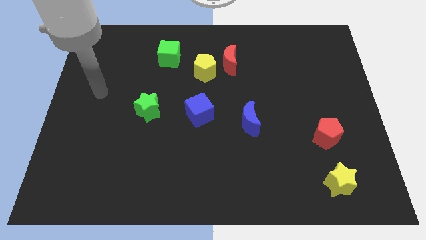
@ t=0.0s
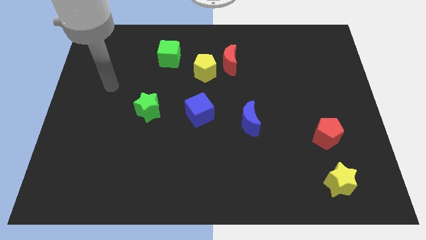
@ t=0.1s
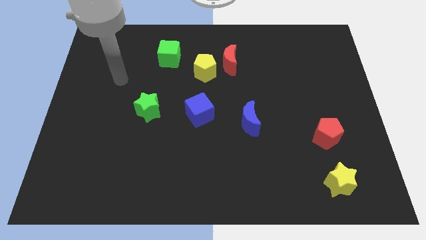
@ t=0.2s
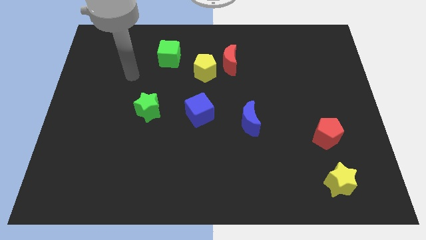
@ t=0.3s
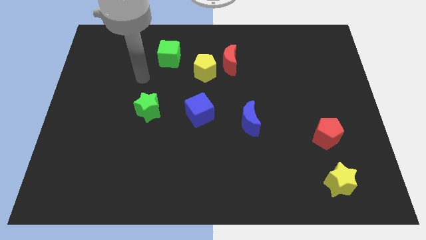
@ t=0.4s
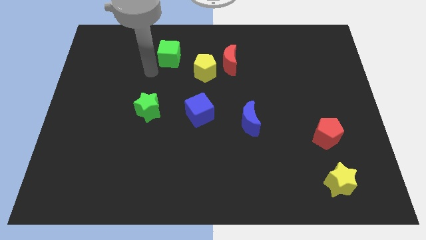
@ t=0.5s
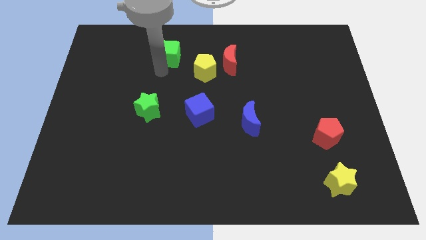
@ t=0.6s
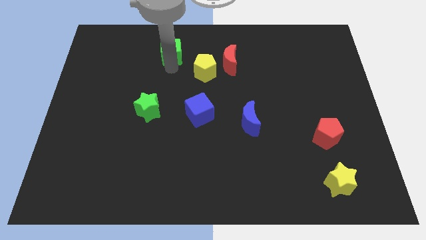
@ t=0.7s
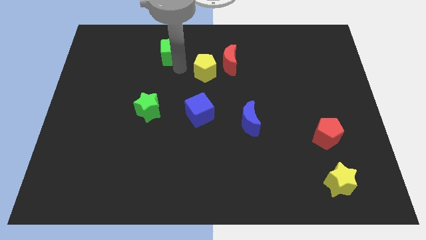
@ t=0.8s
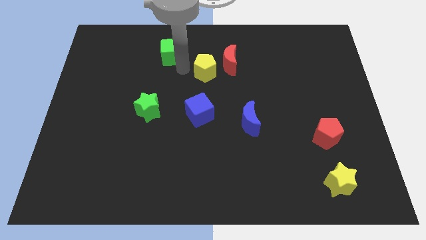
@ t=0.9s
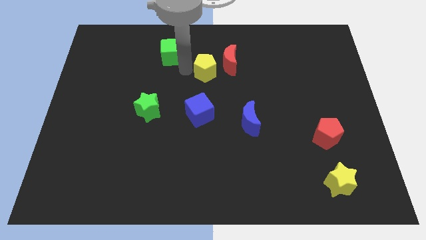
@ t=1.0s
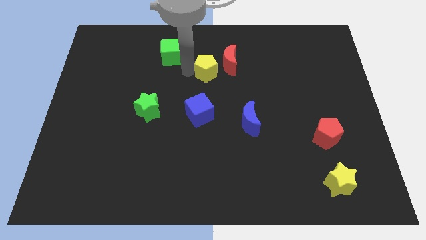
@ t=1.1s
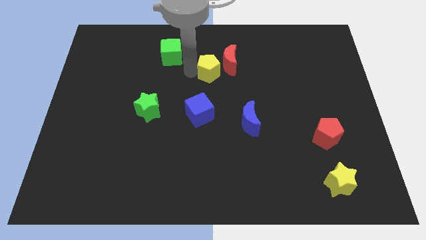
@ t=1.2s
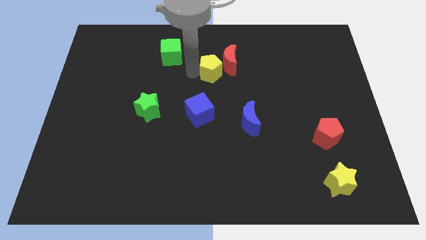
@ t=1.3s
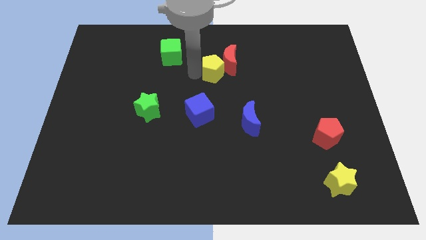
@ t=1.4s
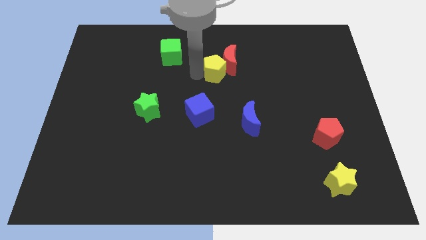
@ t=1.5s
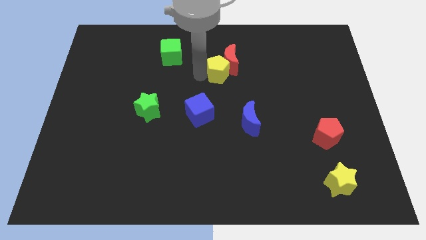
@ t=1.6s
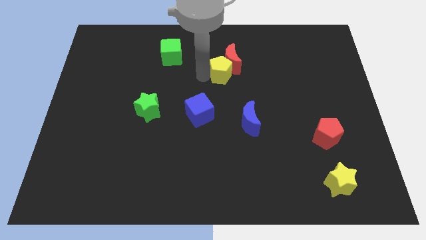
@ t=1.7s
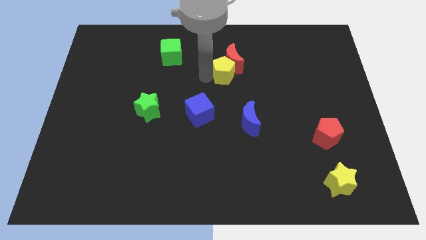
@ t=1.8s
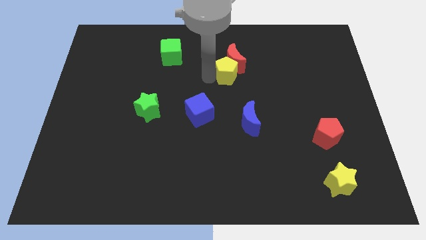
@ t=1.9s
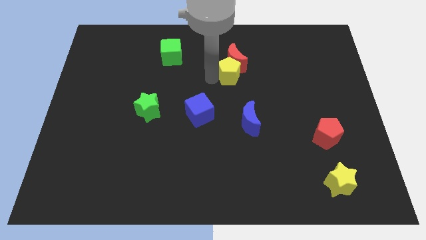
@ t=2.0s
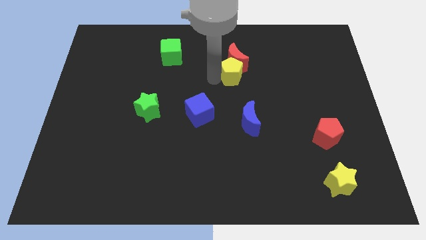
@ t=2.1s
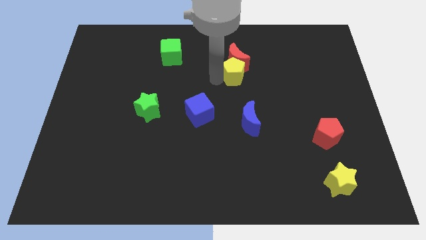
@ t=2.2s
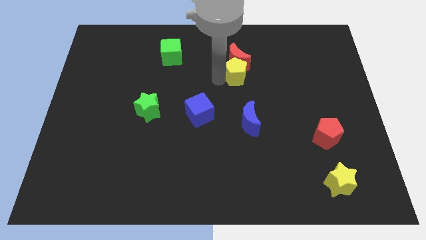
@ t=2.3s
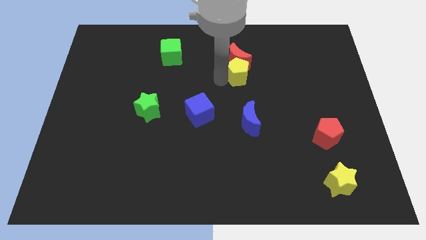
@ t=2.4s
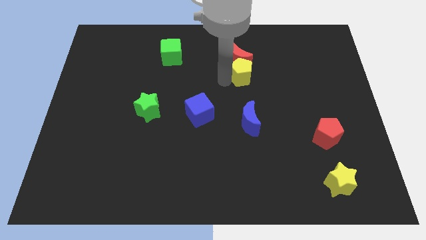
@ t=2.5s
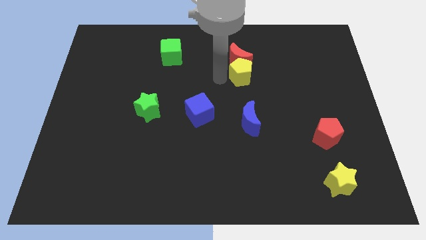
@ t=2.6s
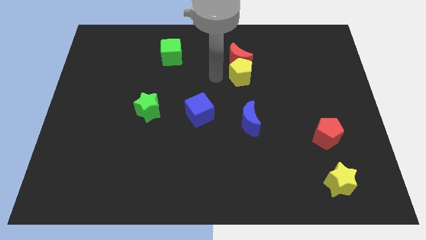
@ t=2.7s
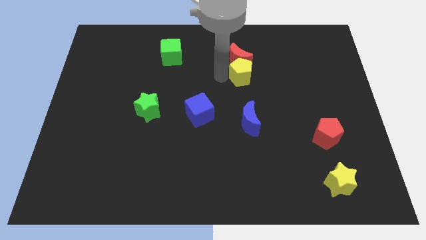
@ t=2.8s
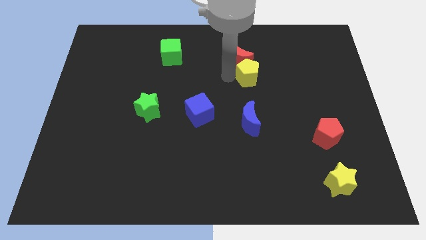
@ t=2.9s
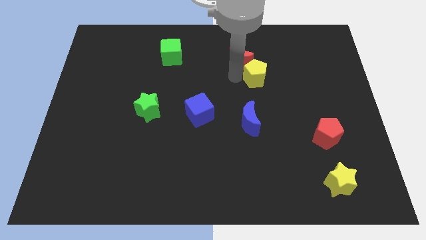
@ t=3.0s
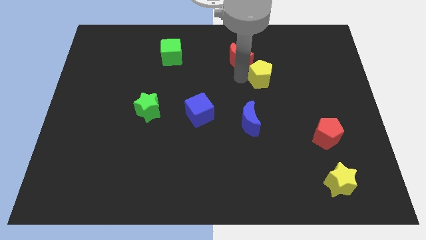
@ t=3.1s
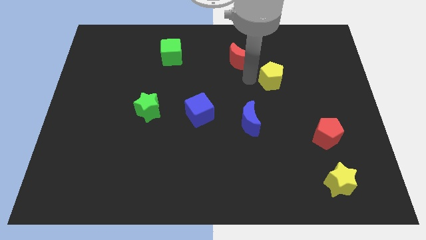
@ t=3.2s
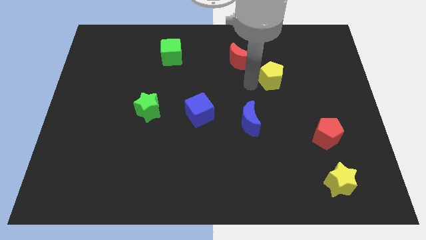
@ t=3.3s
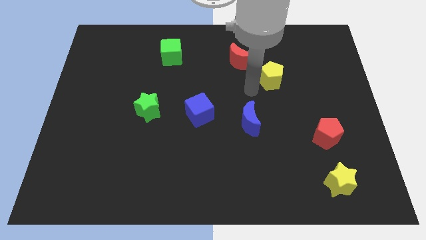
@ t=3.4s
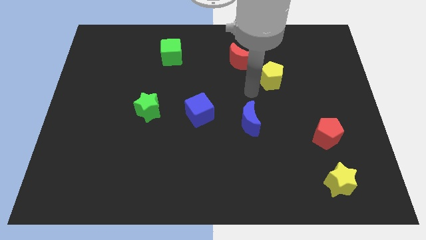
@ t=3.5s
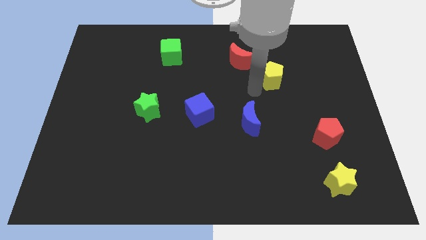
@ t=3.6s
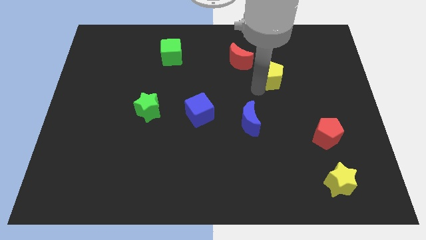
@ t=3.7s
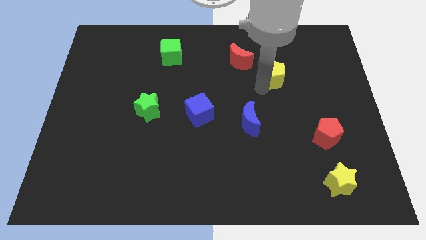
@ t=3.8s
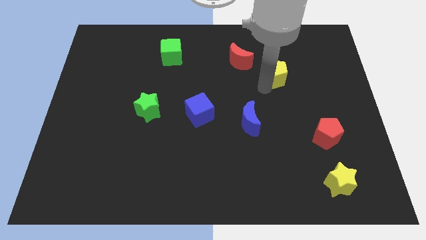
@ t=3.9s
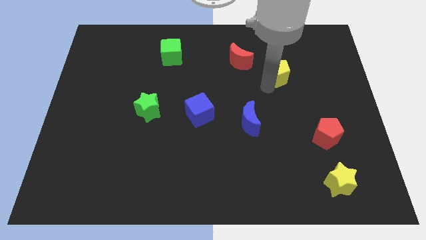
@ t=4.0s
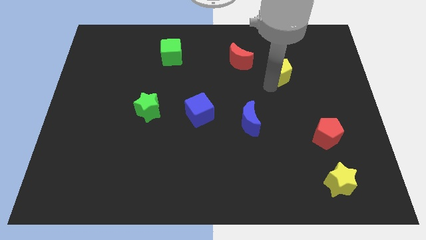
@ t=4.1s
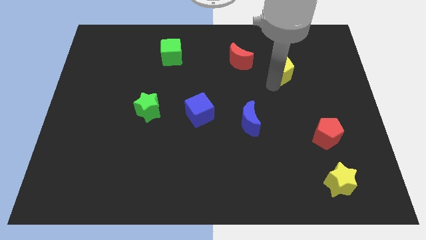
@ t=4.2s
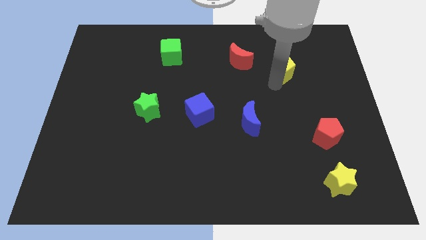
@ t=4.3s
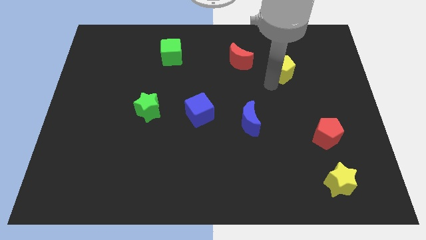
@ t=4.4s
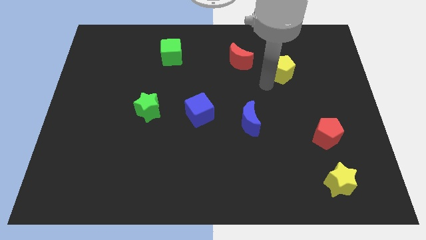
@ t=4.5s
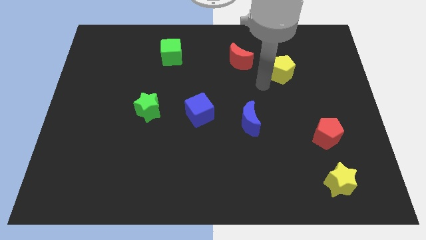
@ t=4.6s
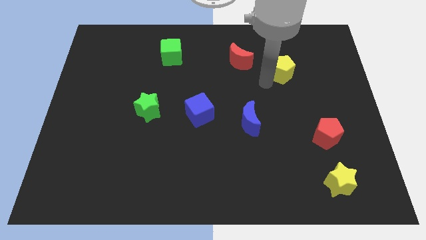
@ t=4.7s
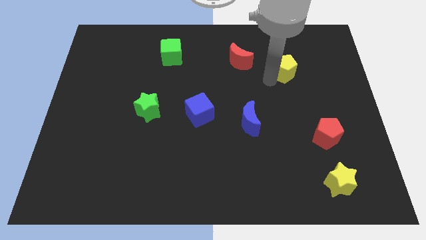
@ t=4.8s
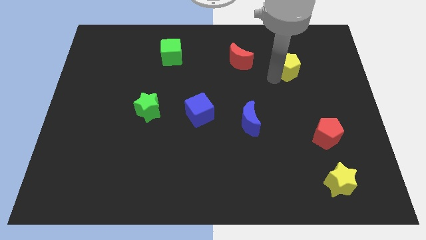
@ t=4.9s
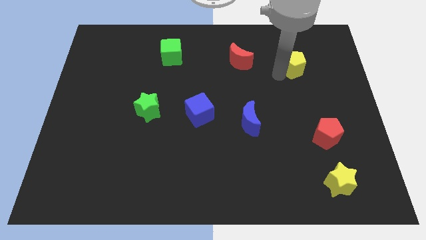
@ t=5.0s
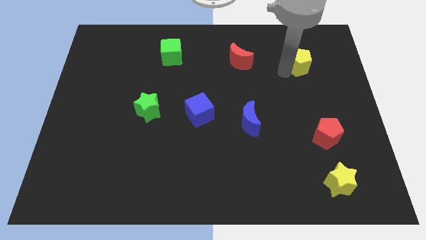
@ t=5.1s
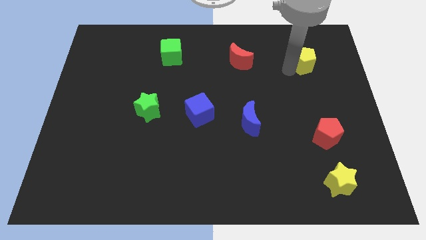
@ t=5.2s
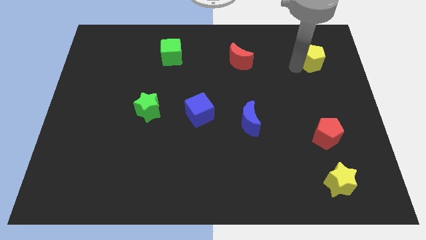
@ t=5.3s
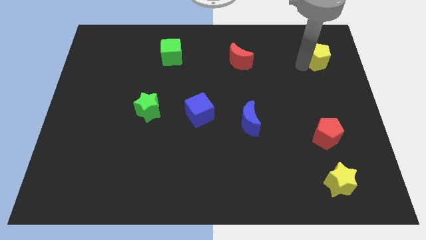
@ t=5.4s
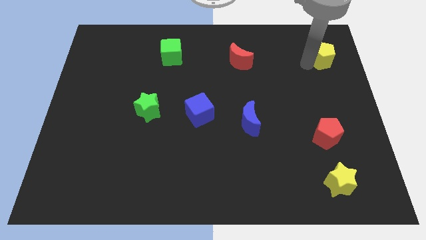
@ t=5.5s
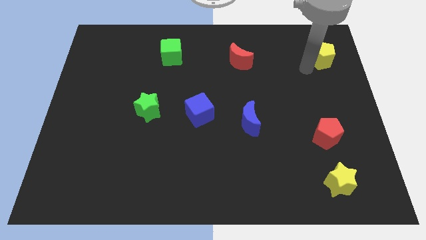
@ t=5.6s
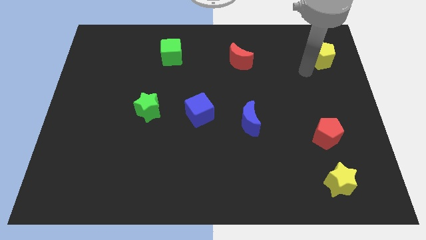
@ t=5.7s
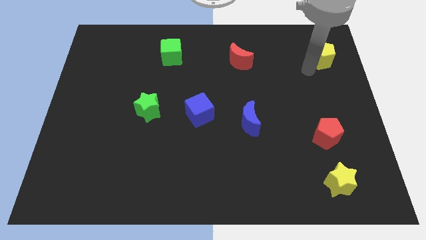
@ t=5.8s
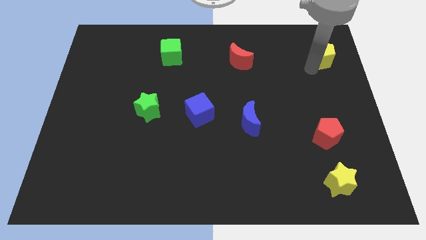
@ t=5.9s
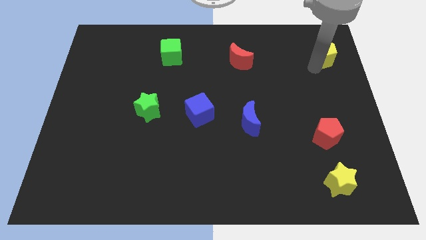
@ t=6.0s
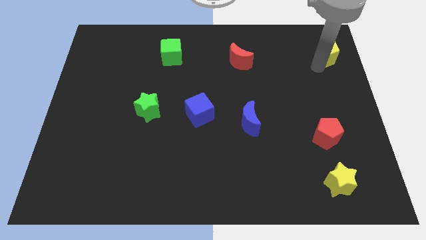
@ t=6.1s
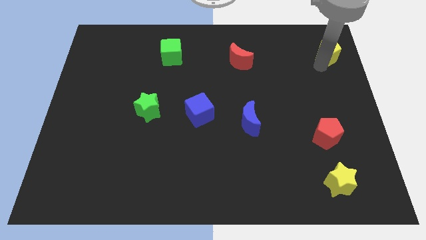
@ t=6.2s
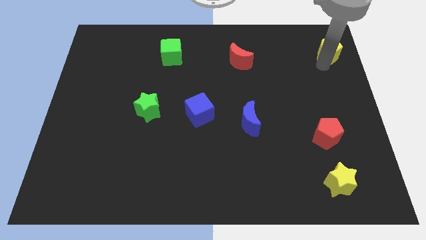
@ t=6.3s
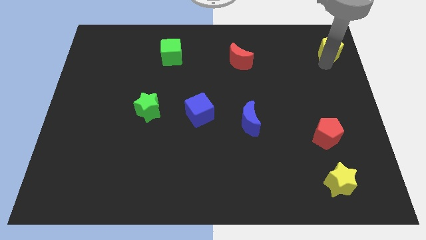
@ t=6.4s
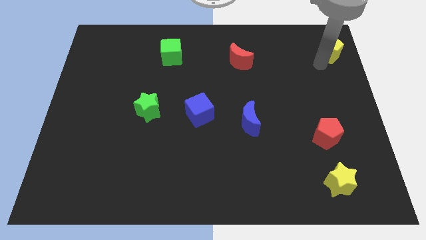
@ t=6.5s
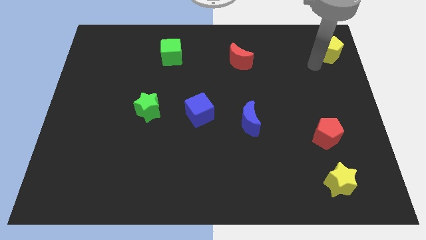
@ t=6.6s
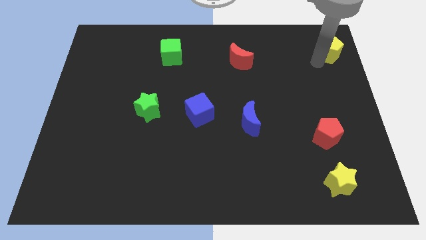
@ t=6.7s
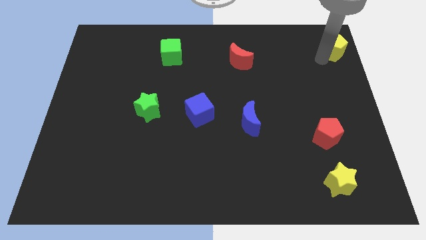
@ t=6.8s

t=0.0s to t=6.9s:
push the yellow pentagon to the top right of the board

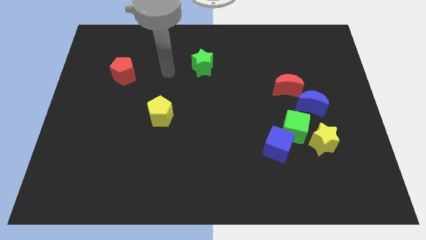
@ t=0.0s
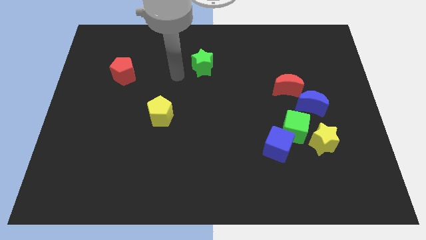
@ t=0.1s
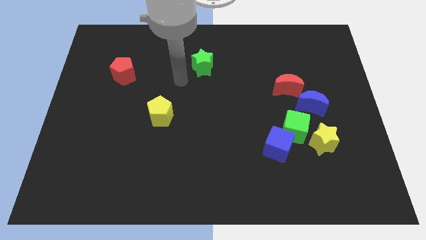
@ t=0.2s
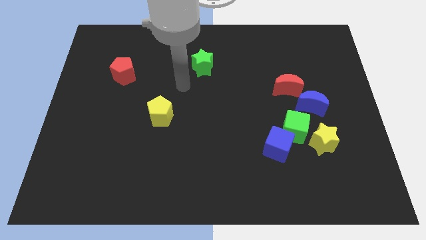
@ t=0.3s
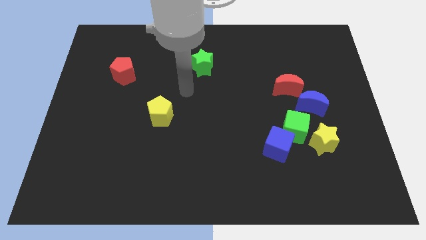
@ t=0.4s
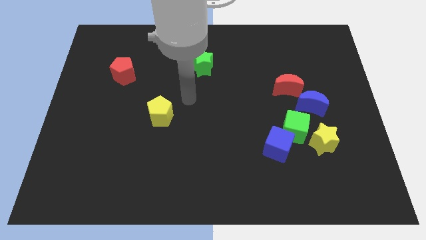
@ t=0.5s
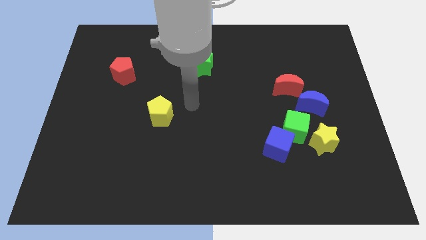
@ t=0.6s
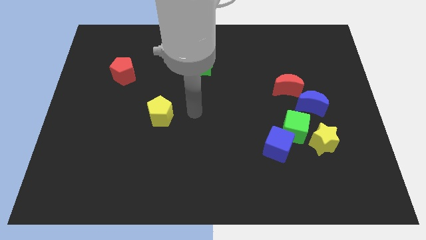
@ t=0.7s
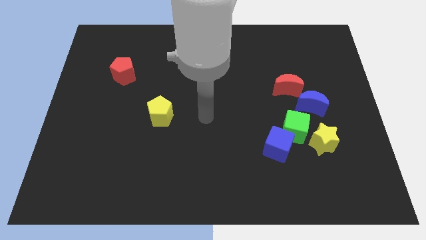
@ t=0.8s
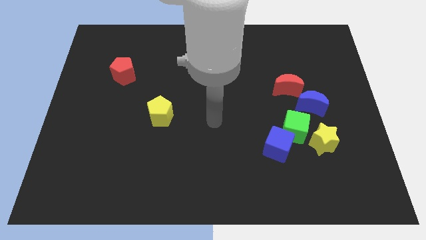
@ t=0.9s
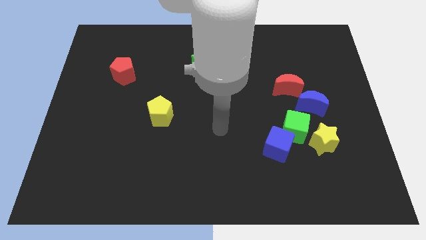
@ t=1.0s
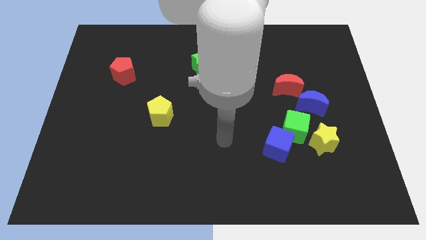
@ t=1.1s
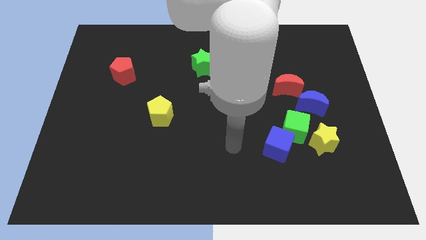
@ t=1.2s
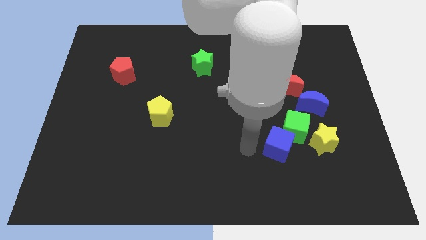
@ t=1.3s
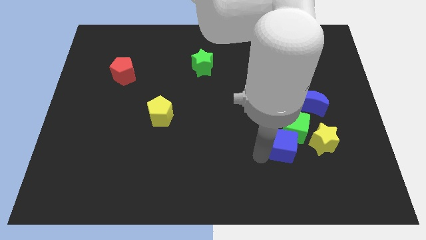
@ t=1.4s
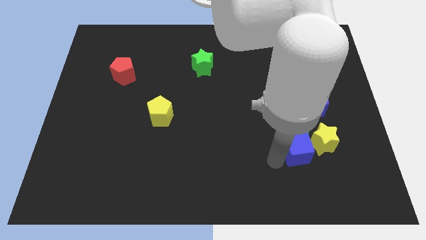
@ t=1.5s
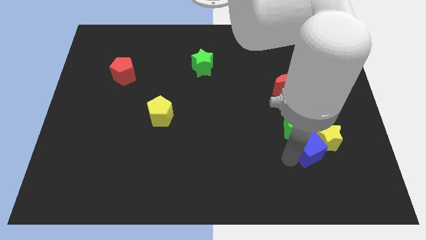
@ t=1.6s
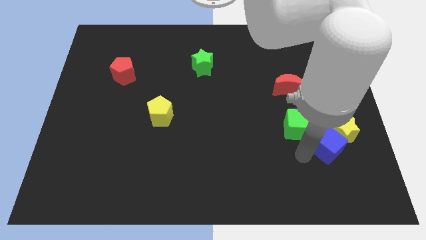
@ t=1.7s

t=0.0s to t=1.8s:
slide the yellow star to the right side of the board
